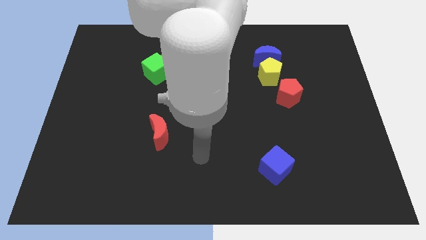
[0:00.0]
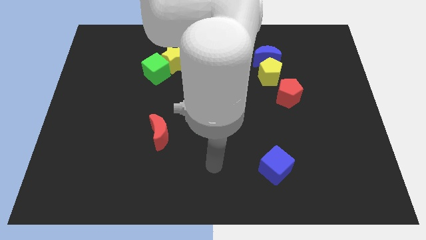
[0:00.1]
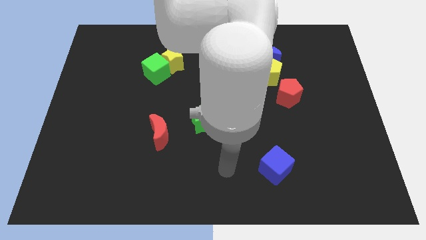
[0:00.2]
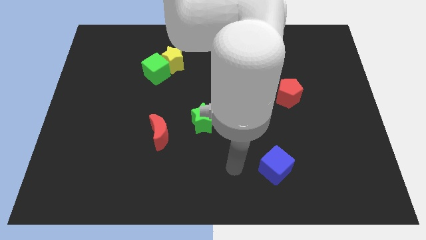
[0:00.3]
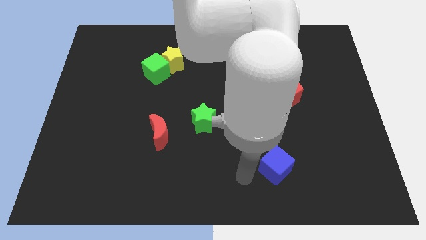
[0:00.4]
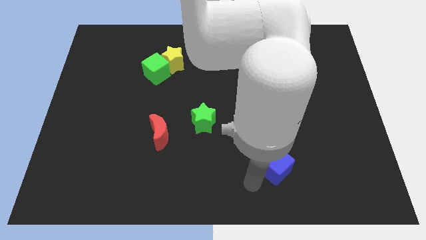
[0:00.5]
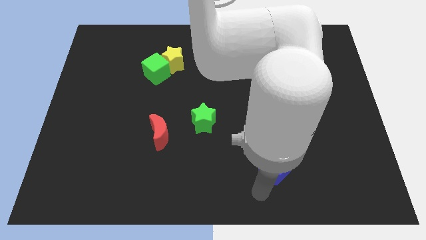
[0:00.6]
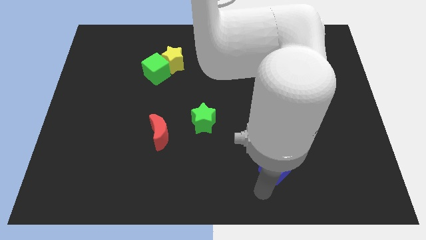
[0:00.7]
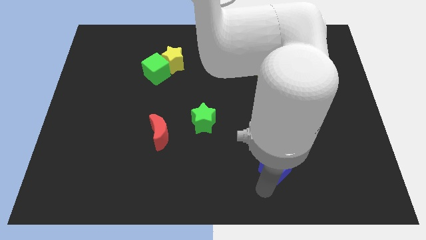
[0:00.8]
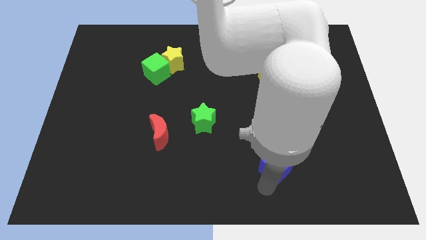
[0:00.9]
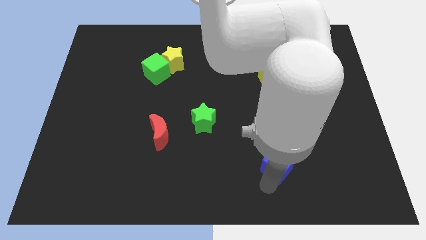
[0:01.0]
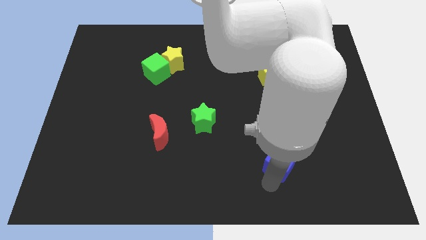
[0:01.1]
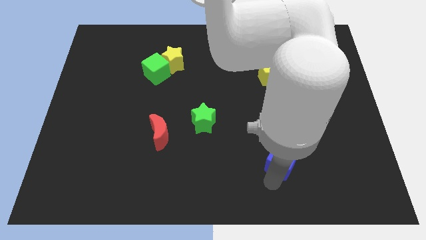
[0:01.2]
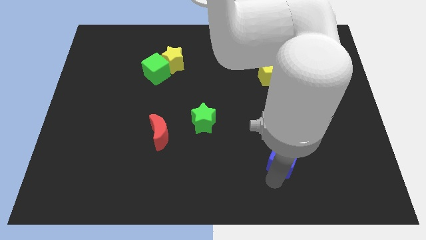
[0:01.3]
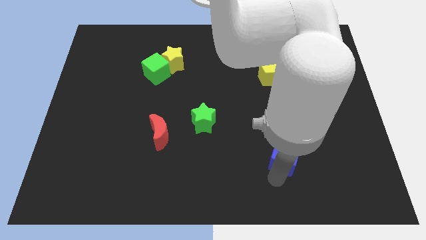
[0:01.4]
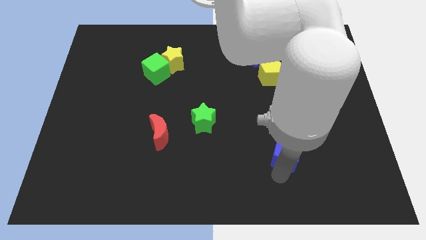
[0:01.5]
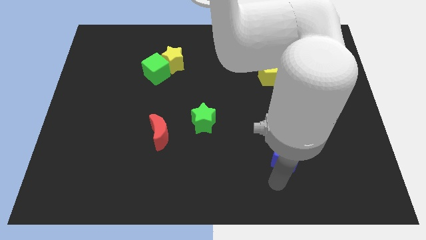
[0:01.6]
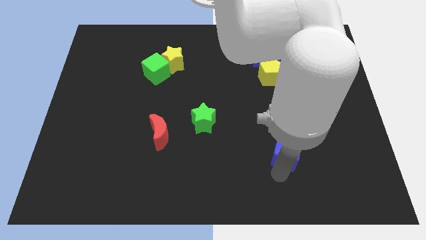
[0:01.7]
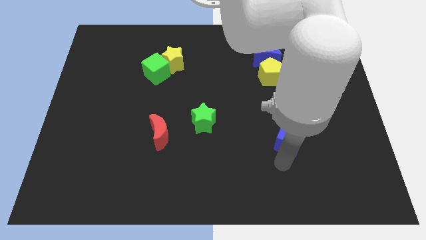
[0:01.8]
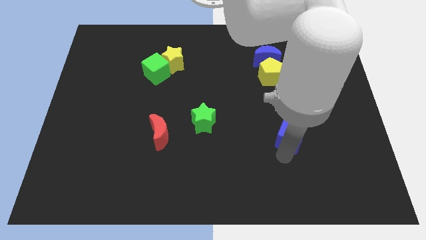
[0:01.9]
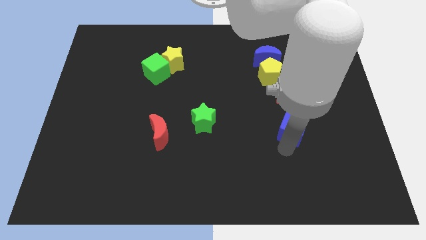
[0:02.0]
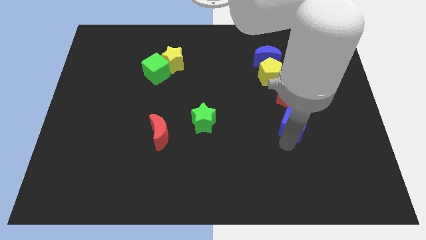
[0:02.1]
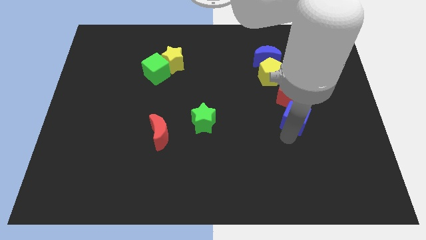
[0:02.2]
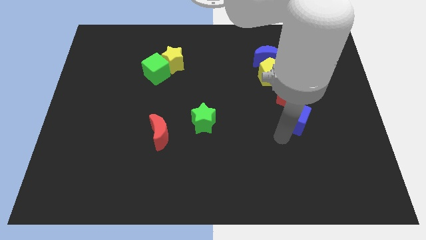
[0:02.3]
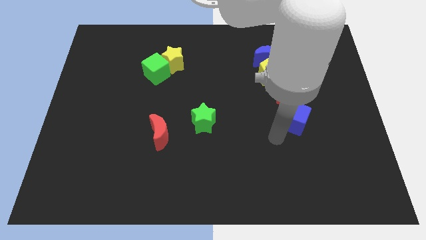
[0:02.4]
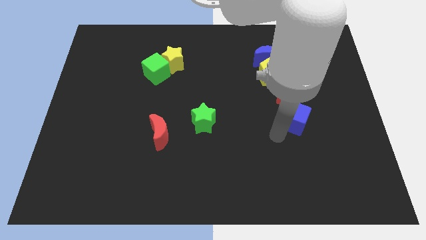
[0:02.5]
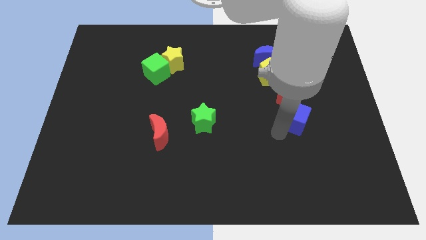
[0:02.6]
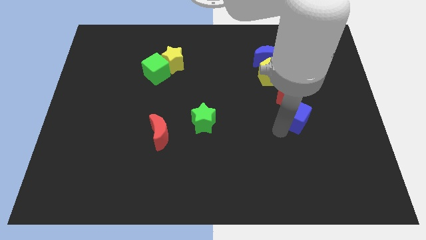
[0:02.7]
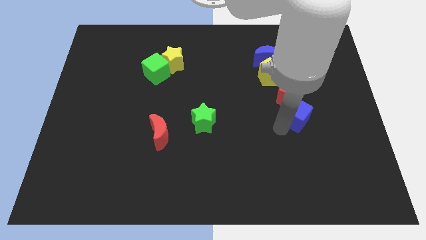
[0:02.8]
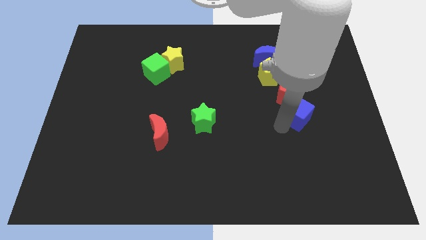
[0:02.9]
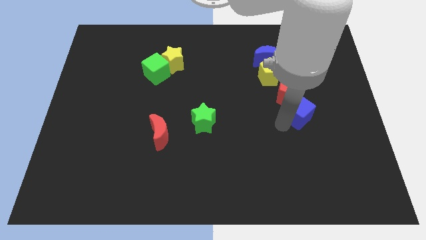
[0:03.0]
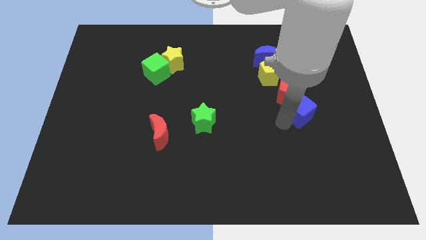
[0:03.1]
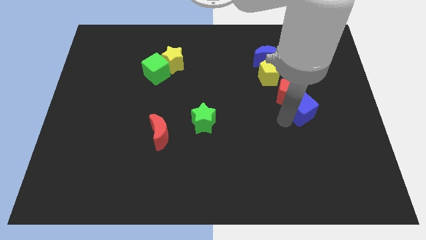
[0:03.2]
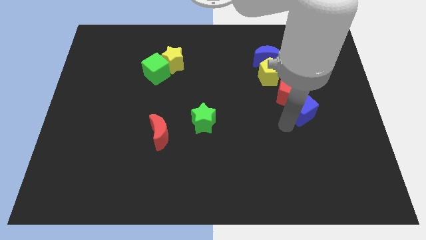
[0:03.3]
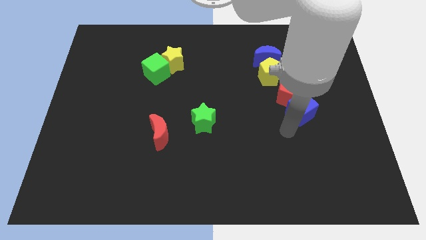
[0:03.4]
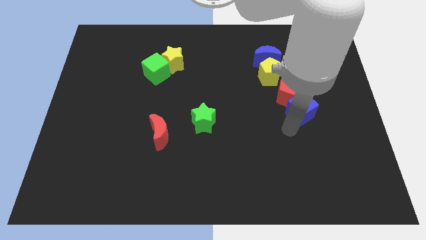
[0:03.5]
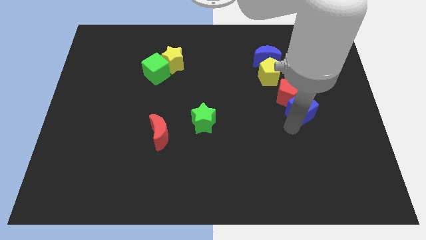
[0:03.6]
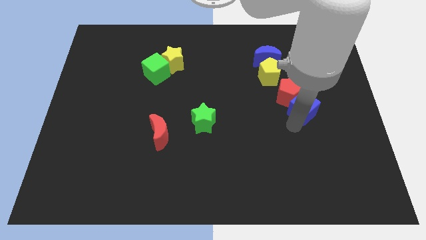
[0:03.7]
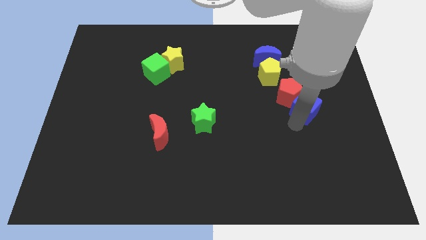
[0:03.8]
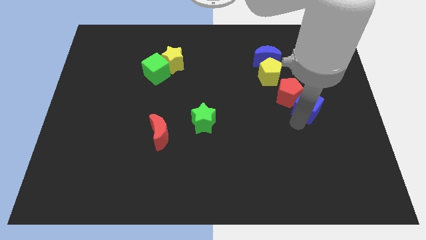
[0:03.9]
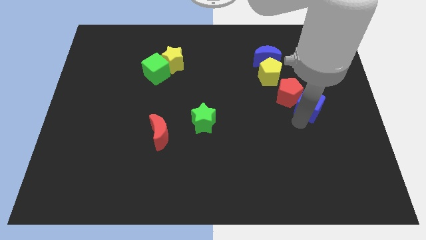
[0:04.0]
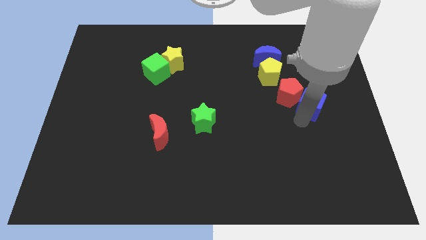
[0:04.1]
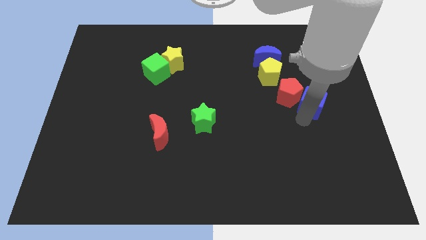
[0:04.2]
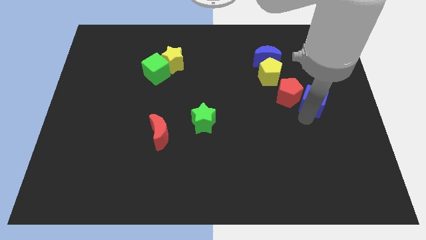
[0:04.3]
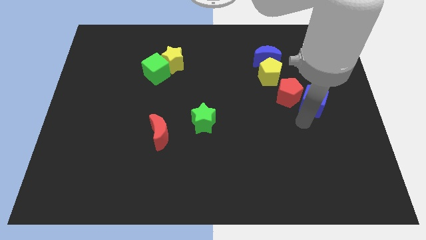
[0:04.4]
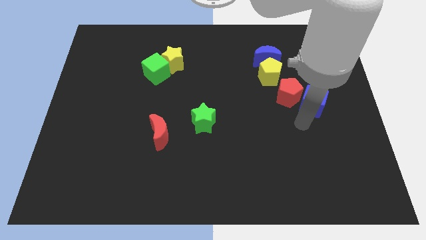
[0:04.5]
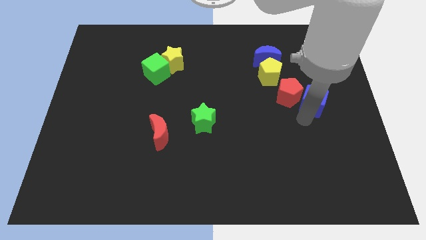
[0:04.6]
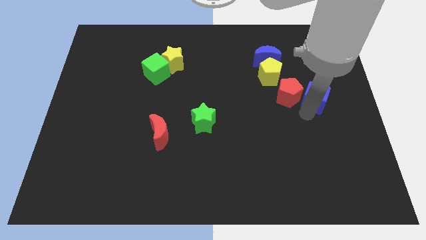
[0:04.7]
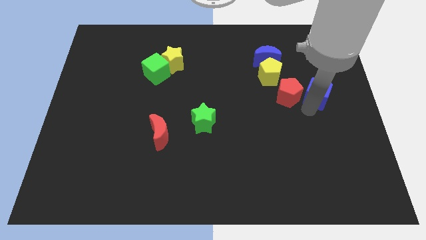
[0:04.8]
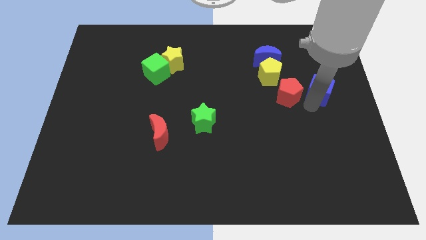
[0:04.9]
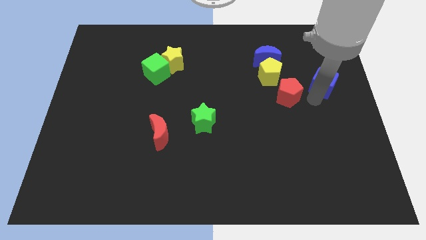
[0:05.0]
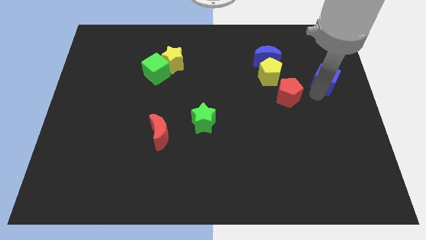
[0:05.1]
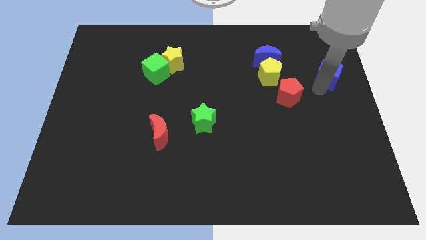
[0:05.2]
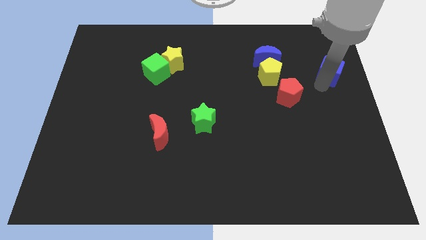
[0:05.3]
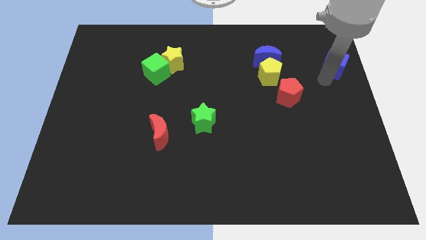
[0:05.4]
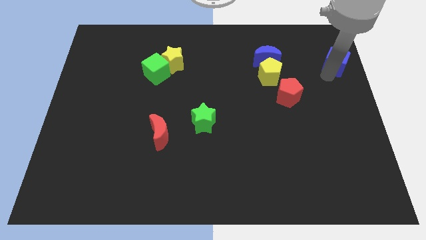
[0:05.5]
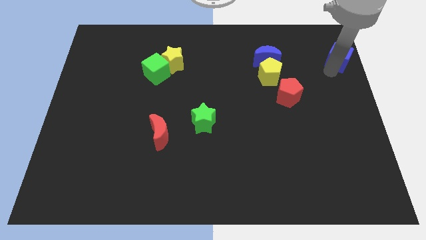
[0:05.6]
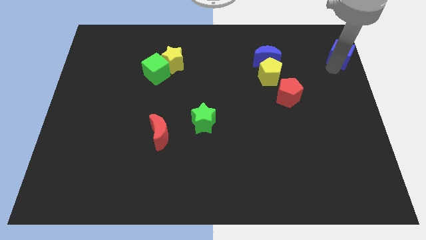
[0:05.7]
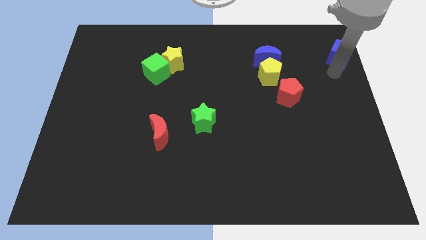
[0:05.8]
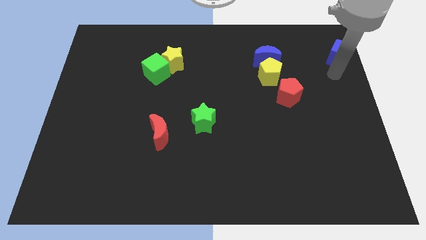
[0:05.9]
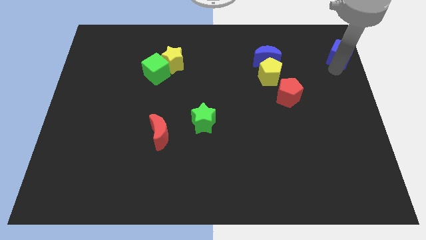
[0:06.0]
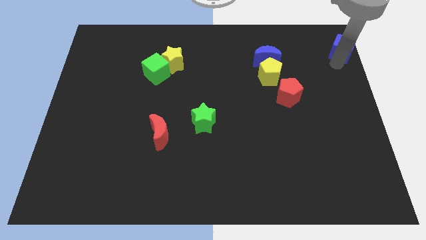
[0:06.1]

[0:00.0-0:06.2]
push the blue cube to the top right

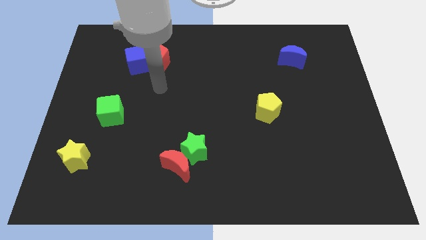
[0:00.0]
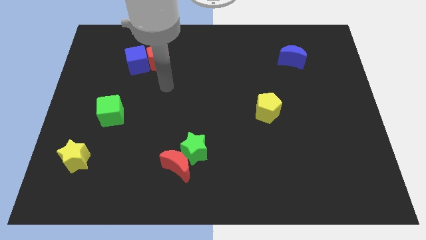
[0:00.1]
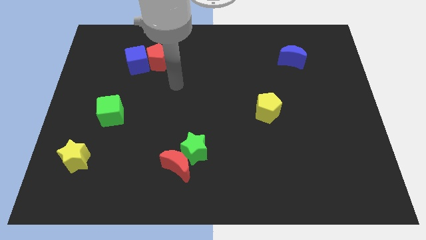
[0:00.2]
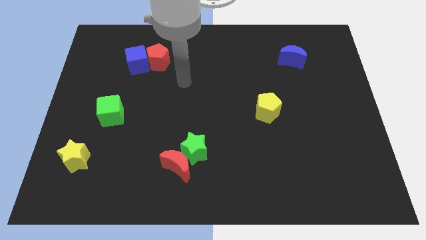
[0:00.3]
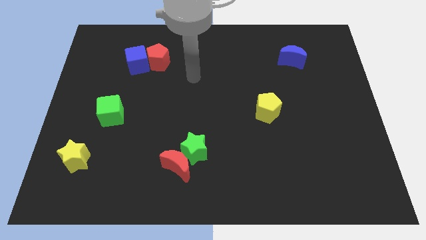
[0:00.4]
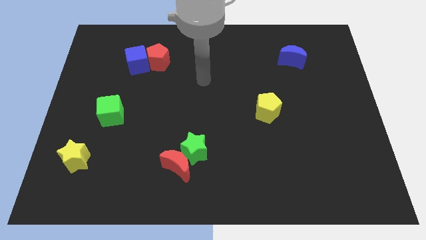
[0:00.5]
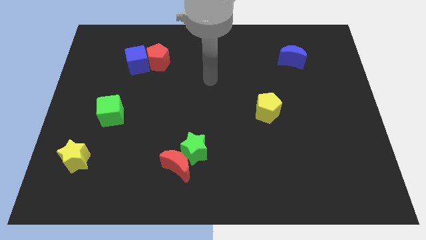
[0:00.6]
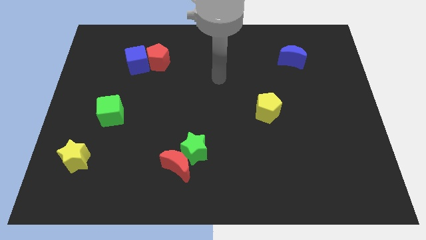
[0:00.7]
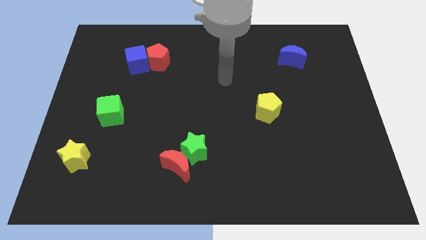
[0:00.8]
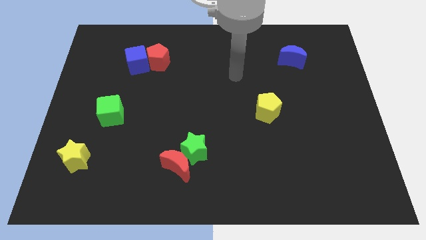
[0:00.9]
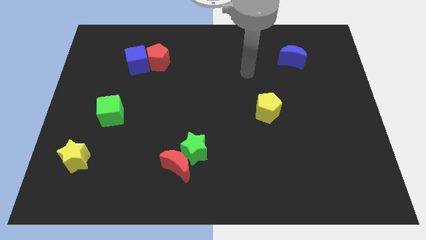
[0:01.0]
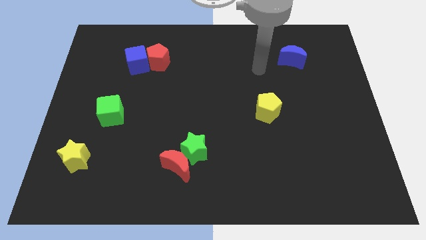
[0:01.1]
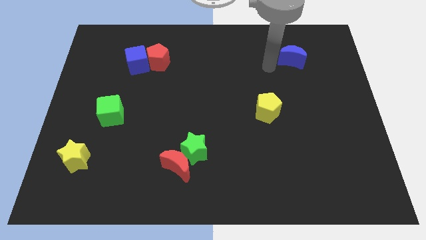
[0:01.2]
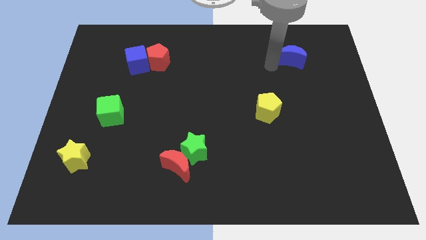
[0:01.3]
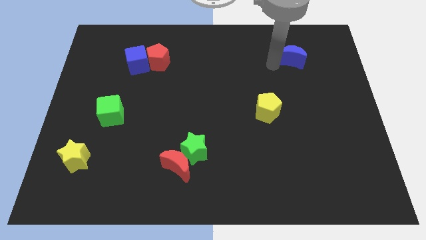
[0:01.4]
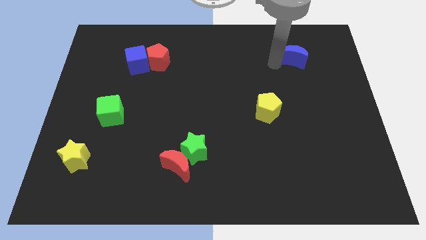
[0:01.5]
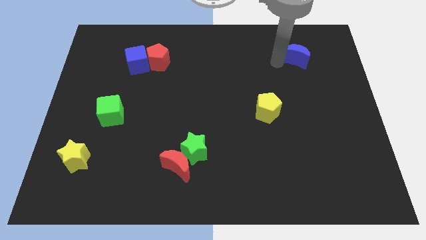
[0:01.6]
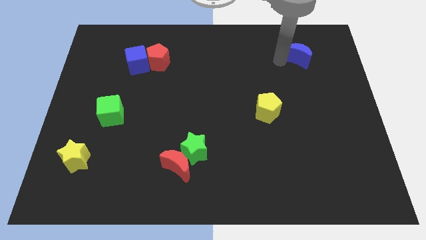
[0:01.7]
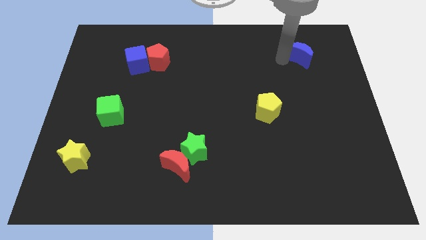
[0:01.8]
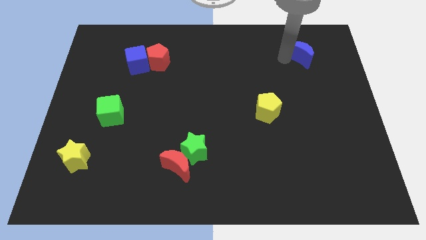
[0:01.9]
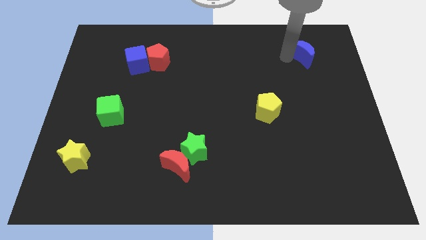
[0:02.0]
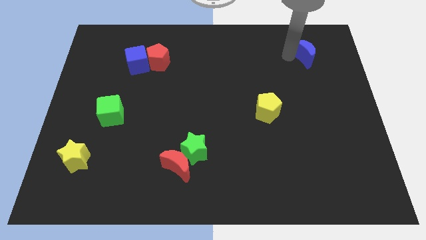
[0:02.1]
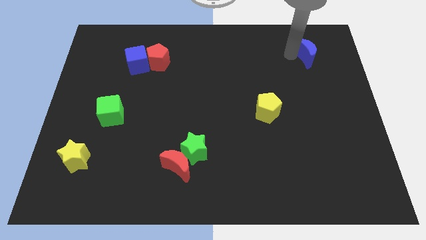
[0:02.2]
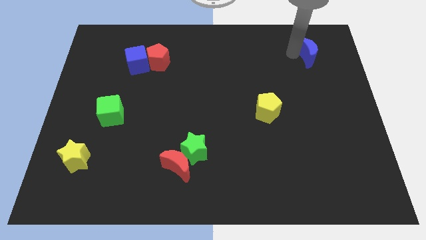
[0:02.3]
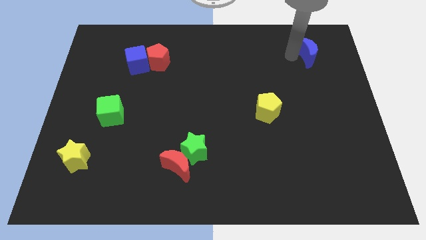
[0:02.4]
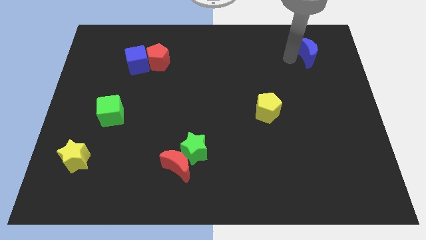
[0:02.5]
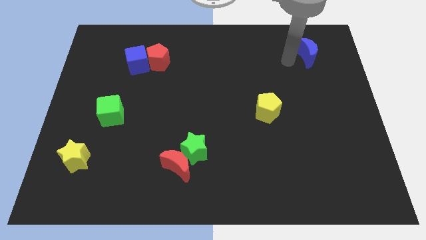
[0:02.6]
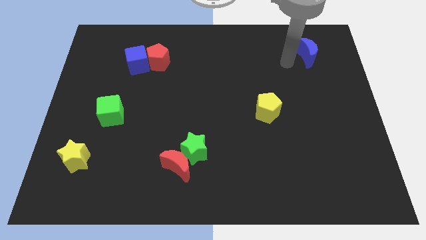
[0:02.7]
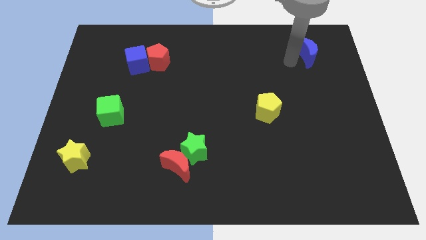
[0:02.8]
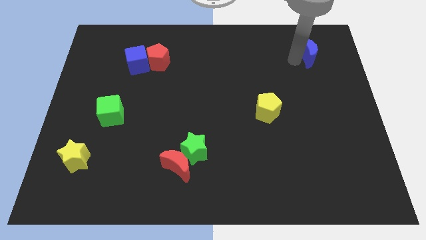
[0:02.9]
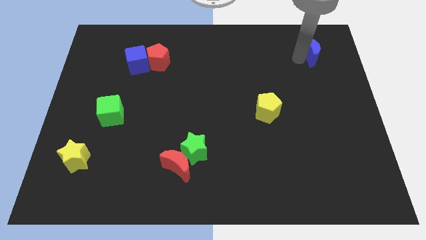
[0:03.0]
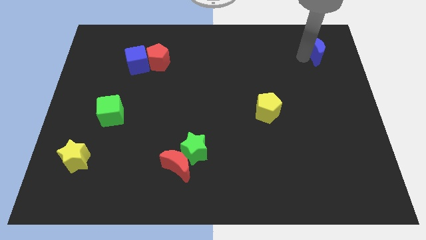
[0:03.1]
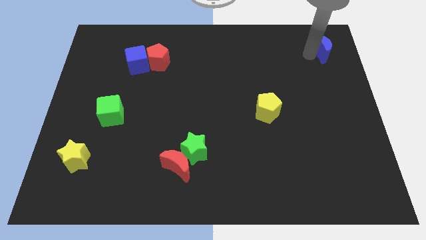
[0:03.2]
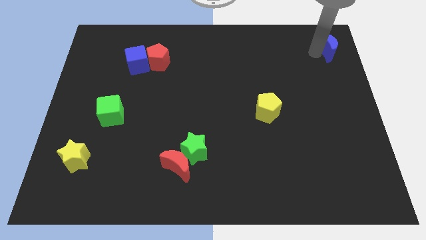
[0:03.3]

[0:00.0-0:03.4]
move the blue moon to the upper right corner
